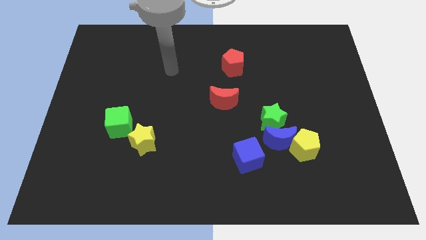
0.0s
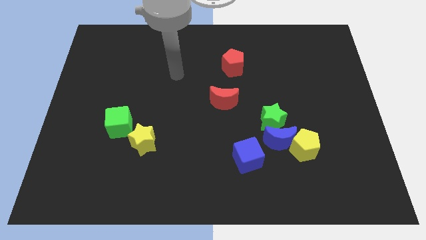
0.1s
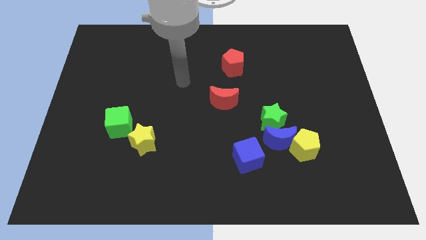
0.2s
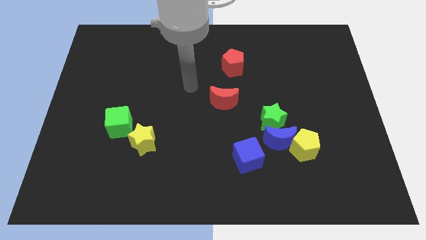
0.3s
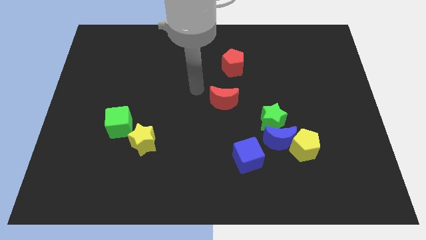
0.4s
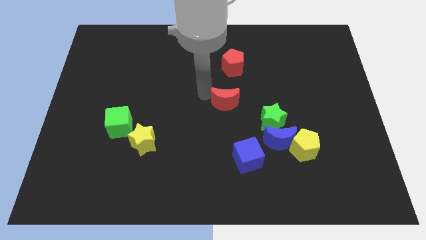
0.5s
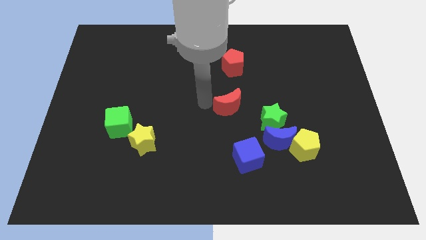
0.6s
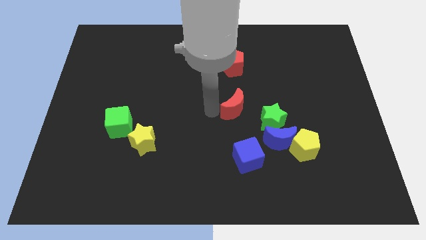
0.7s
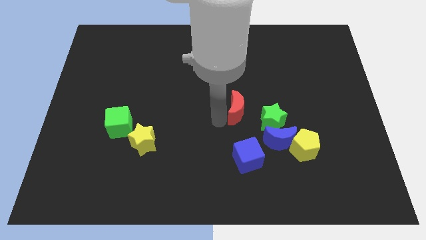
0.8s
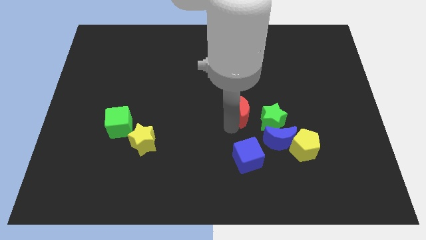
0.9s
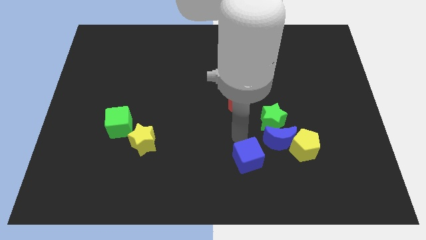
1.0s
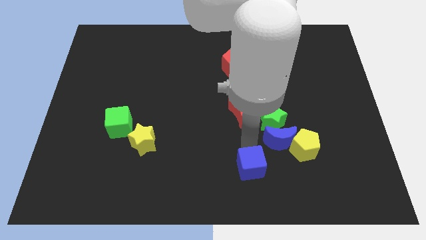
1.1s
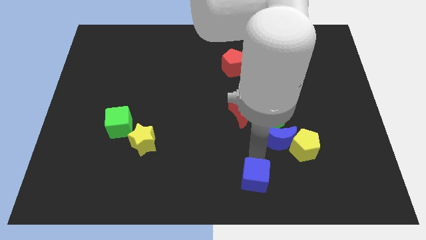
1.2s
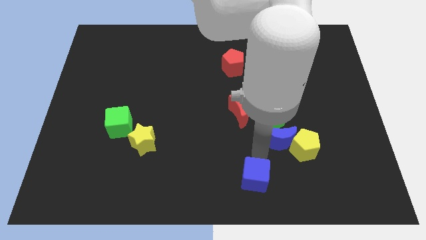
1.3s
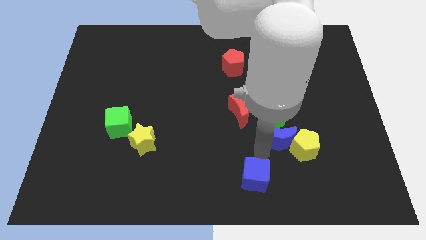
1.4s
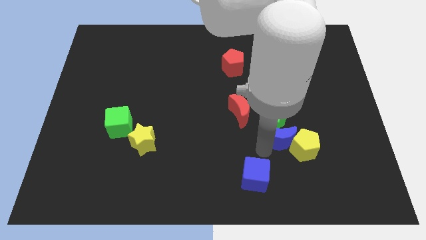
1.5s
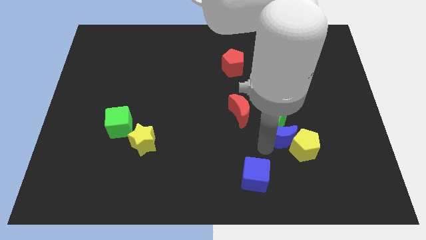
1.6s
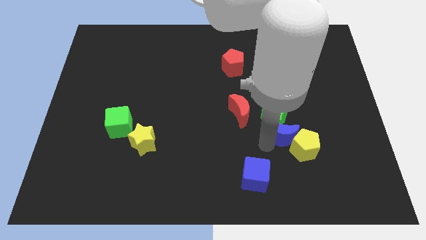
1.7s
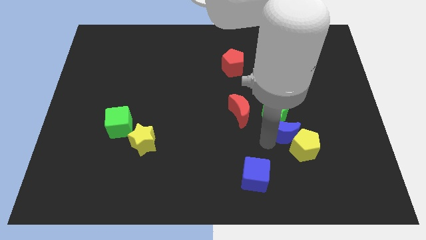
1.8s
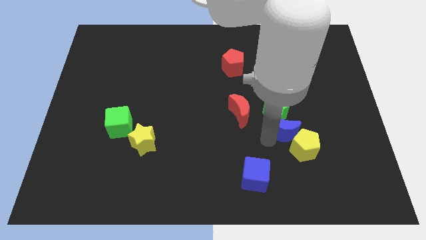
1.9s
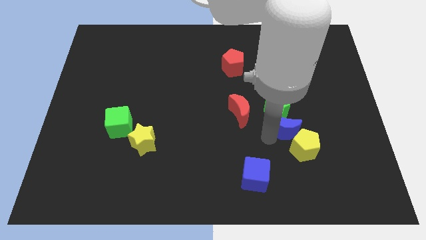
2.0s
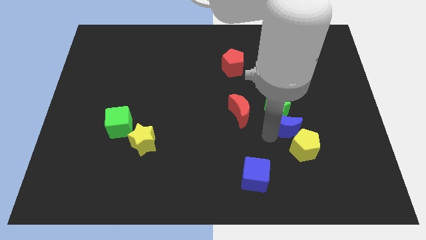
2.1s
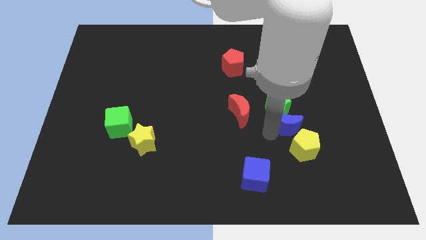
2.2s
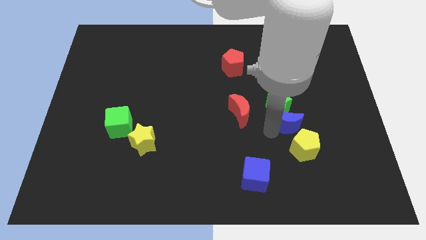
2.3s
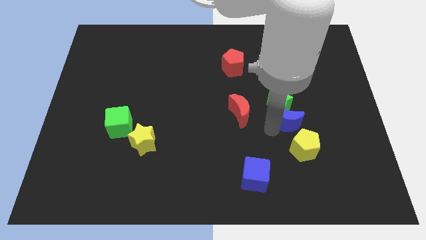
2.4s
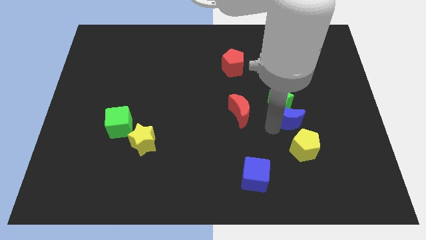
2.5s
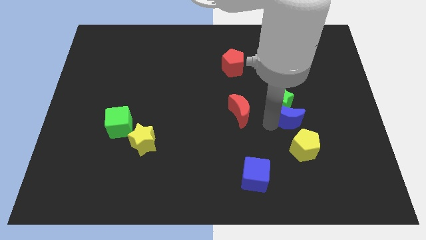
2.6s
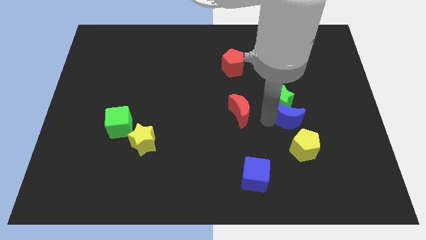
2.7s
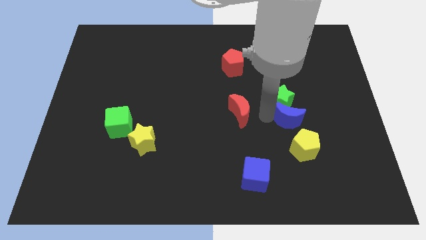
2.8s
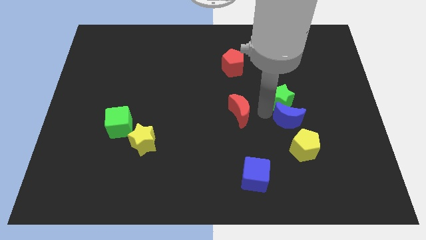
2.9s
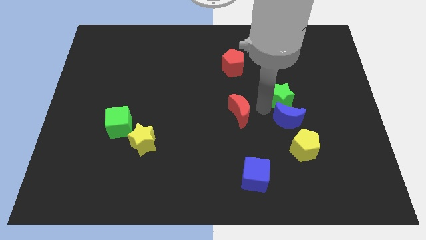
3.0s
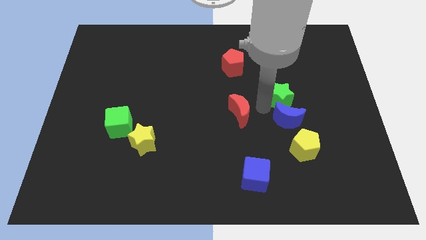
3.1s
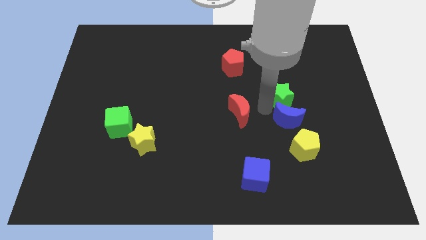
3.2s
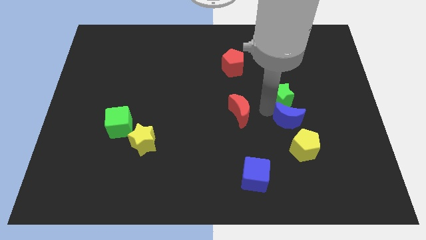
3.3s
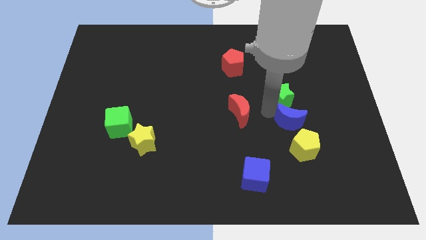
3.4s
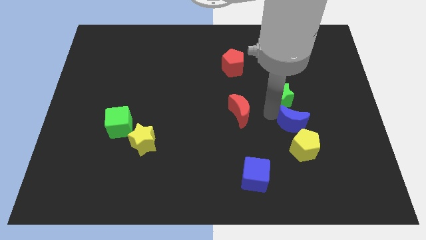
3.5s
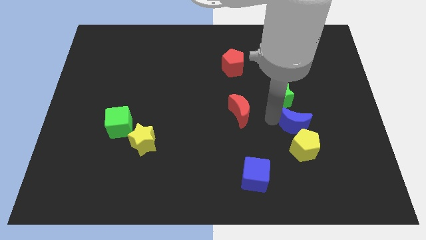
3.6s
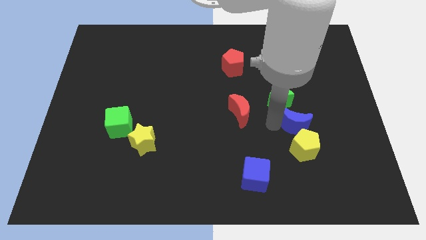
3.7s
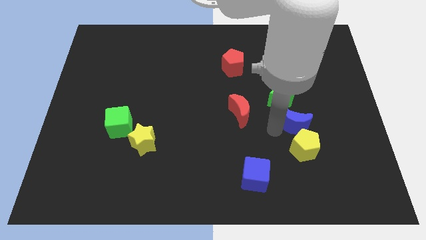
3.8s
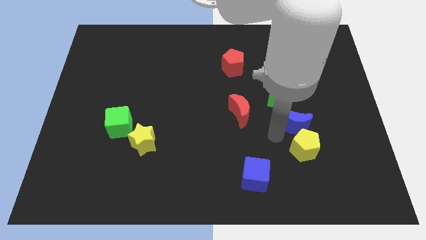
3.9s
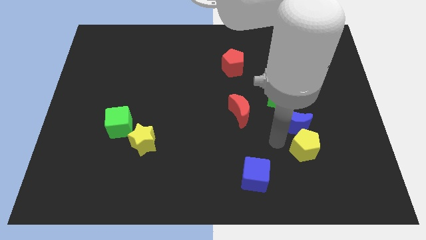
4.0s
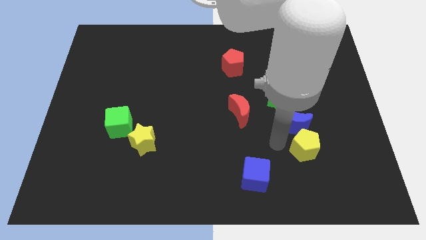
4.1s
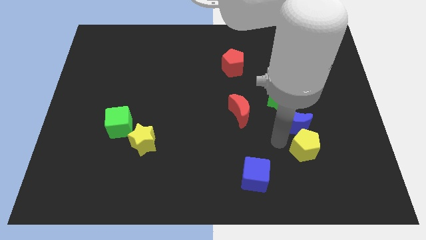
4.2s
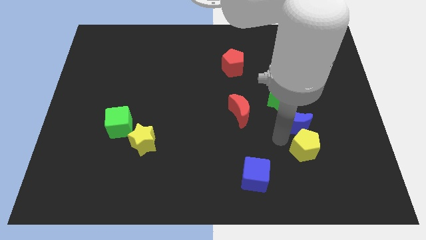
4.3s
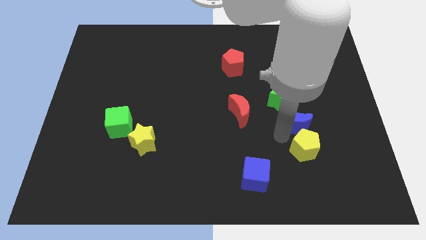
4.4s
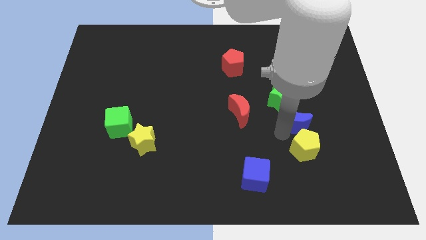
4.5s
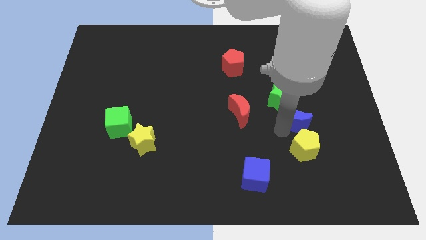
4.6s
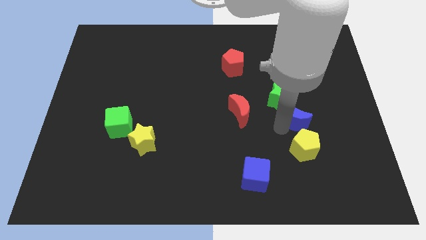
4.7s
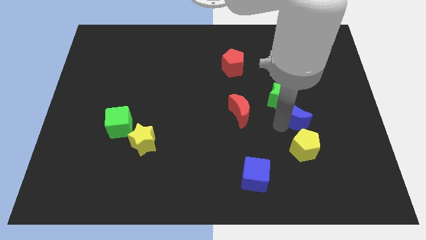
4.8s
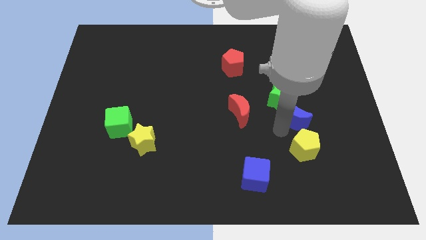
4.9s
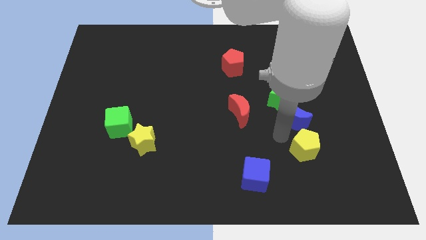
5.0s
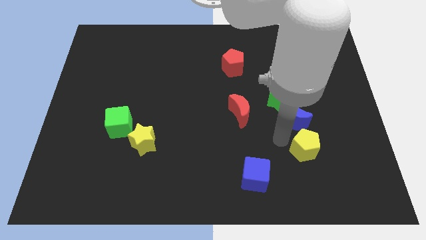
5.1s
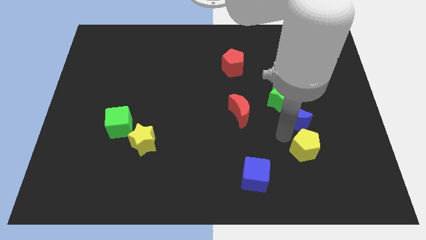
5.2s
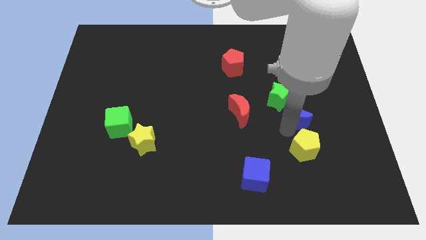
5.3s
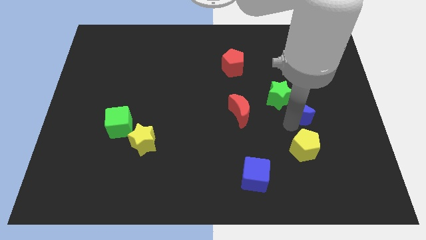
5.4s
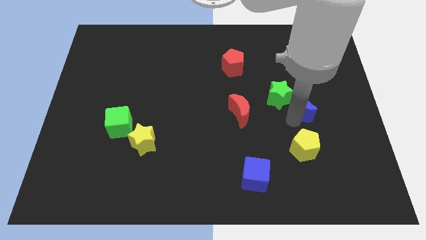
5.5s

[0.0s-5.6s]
separate the blue moon from the green star, yellow pentagon, and blue cube

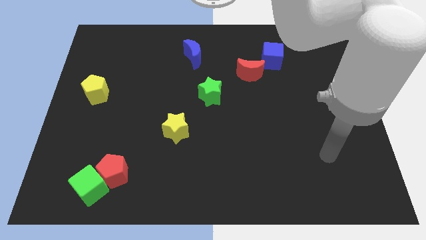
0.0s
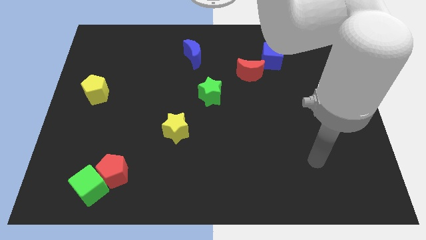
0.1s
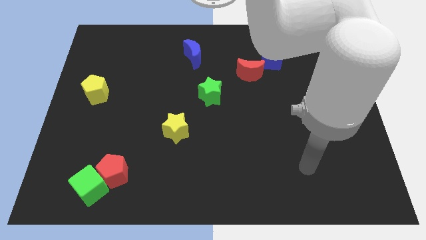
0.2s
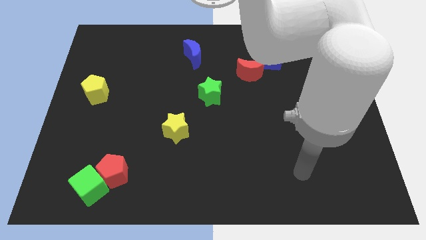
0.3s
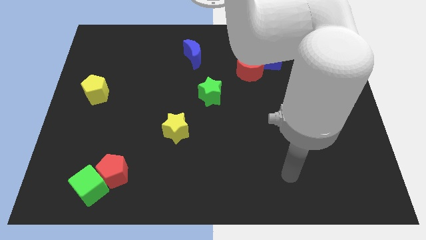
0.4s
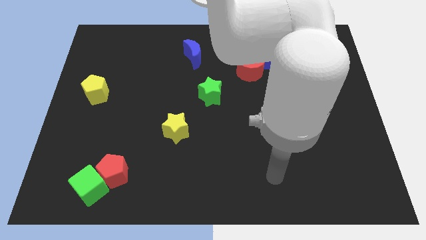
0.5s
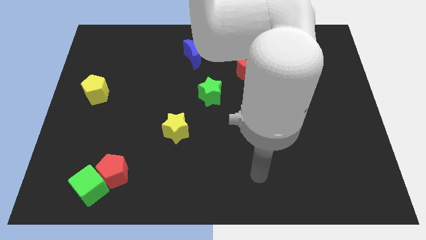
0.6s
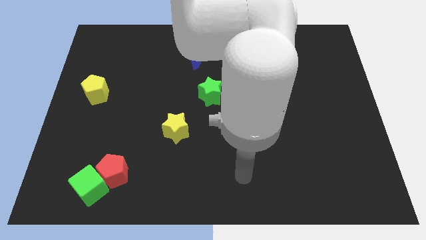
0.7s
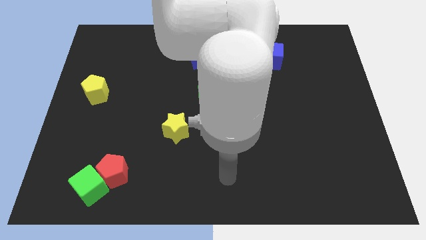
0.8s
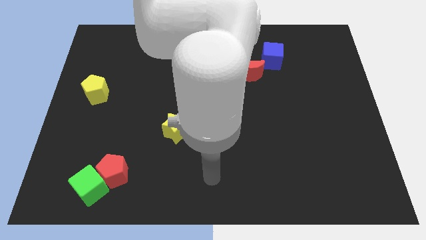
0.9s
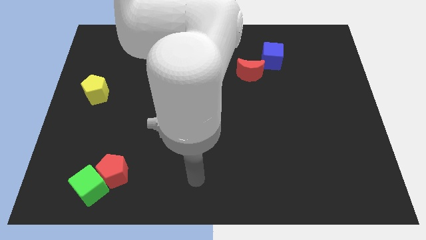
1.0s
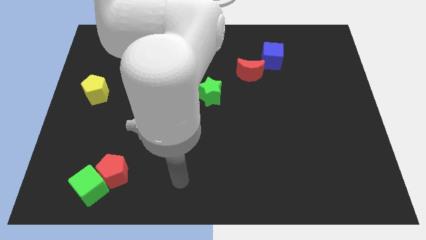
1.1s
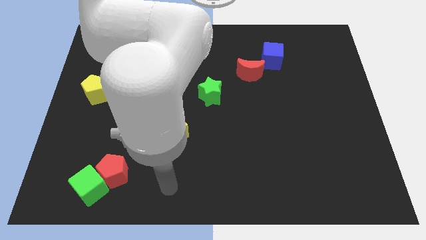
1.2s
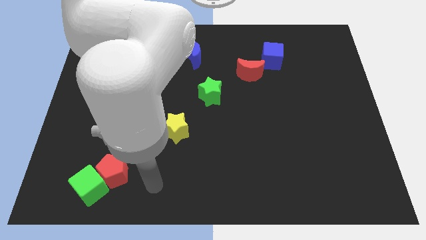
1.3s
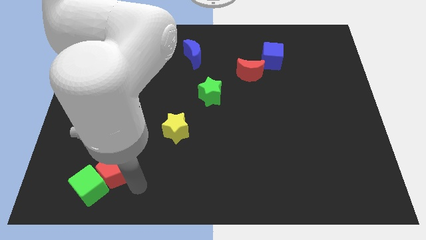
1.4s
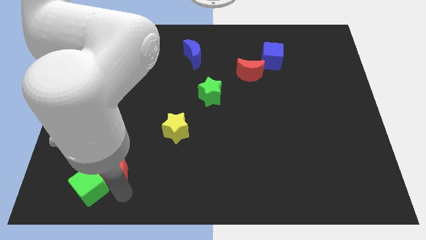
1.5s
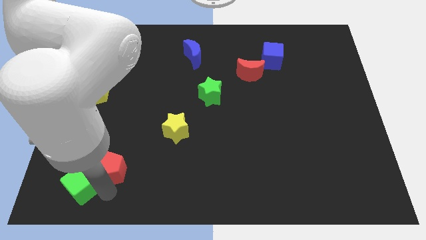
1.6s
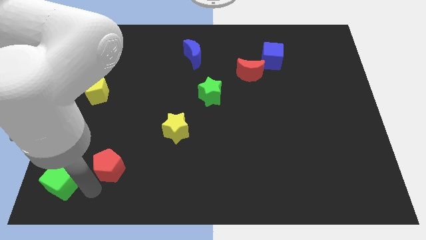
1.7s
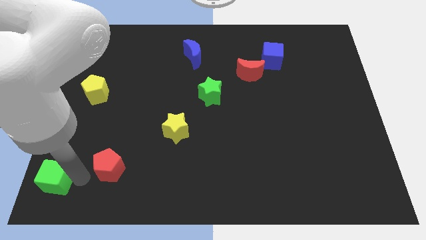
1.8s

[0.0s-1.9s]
move the red pentagon away from the green cube

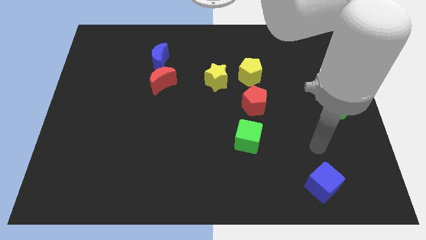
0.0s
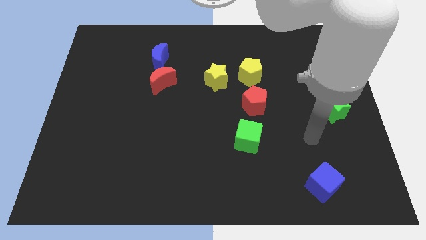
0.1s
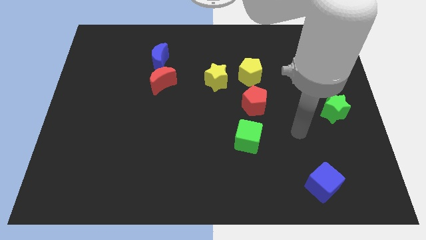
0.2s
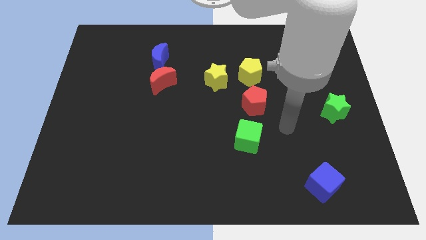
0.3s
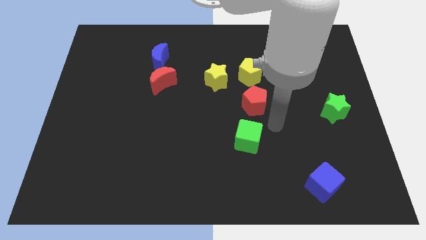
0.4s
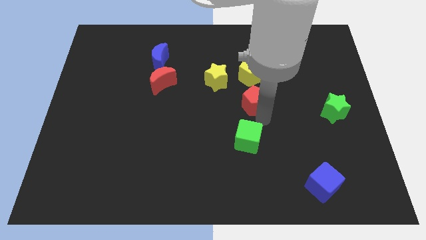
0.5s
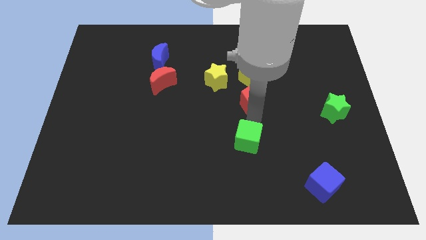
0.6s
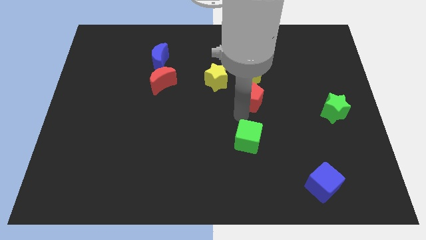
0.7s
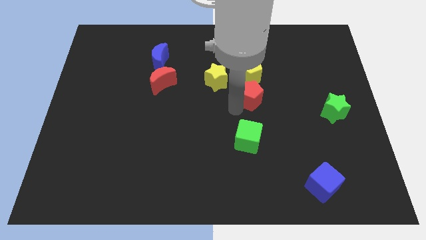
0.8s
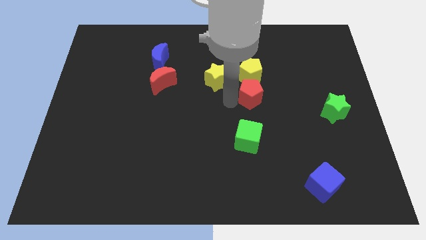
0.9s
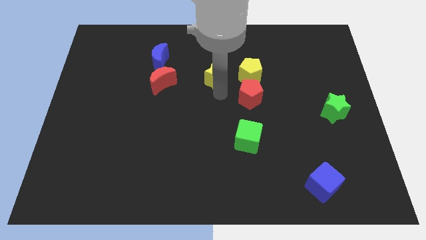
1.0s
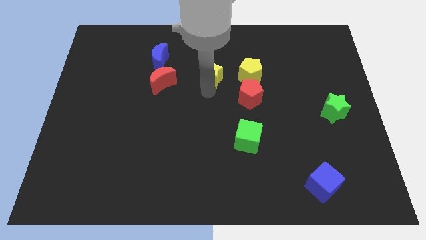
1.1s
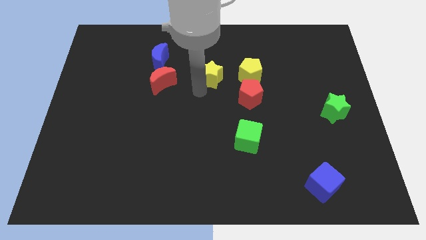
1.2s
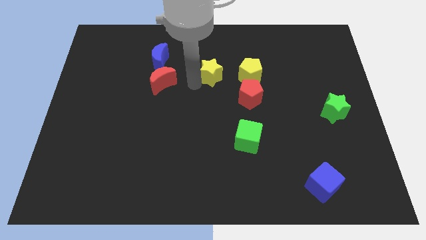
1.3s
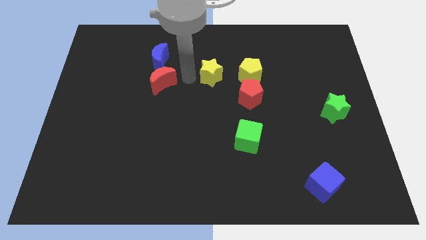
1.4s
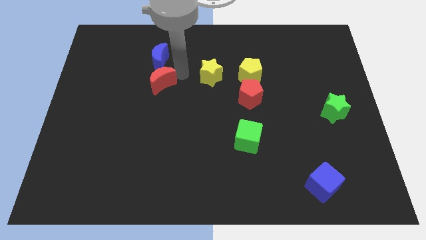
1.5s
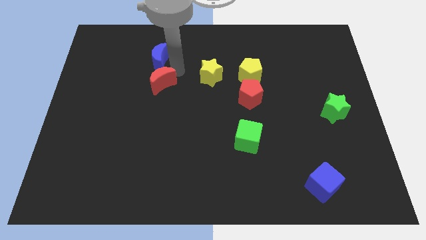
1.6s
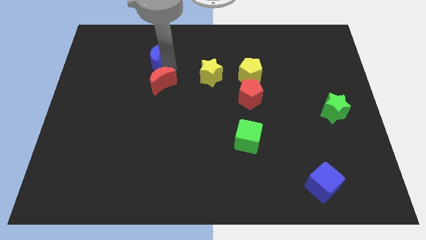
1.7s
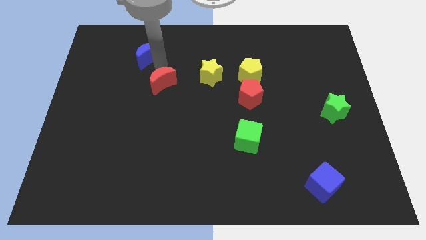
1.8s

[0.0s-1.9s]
separate the red moon from the blue moon
